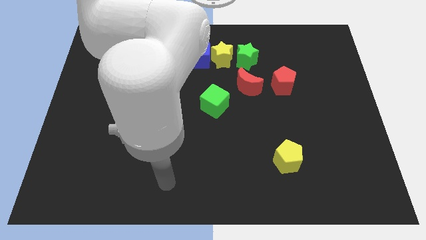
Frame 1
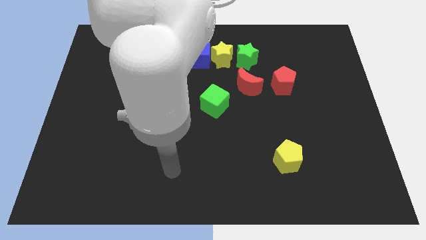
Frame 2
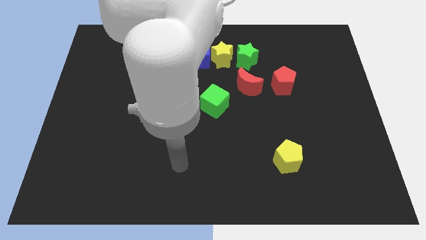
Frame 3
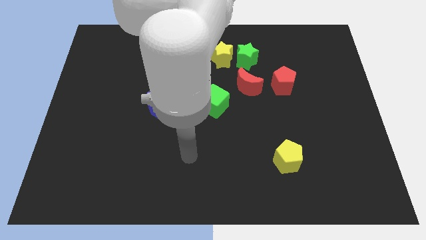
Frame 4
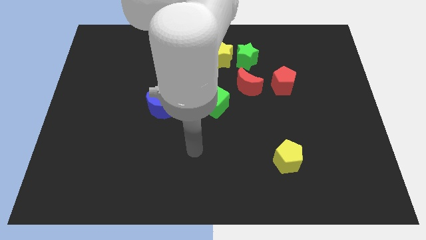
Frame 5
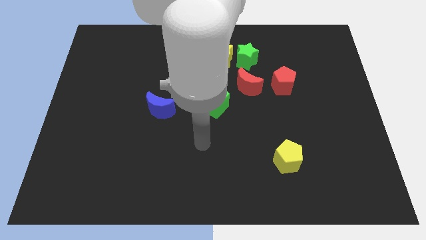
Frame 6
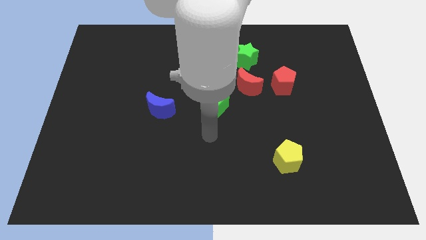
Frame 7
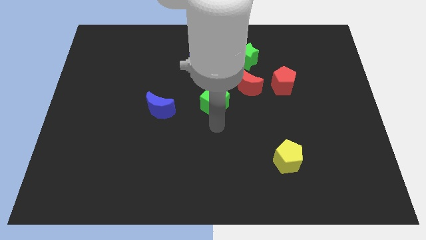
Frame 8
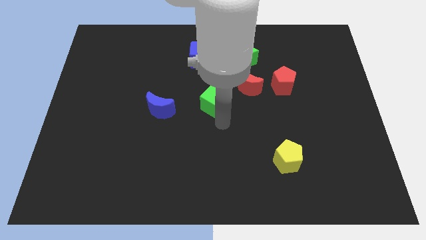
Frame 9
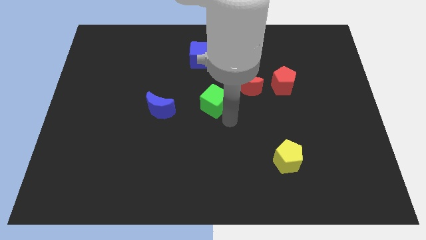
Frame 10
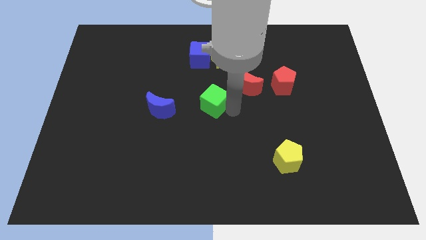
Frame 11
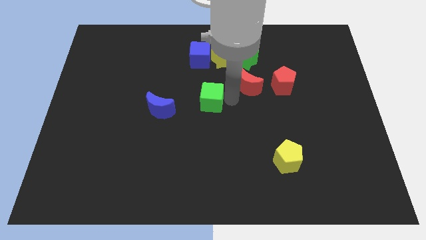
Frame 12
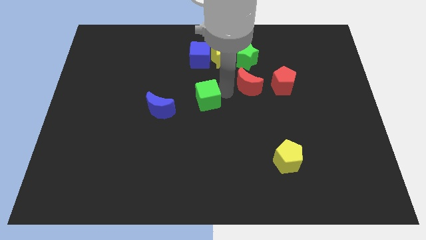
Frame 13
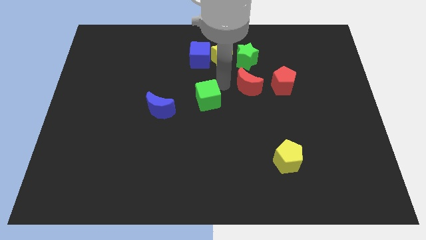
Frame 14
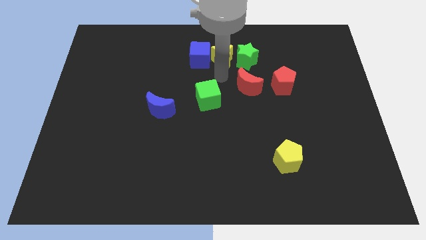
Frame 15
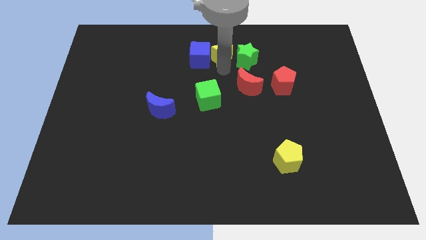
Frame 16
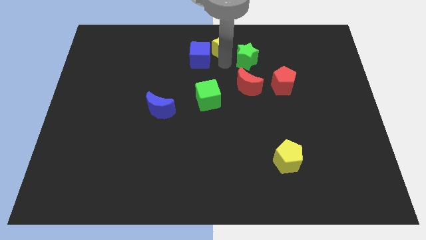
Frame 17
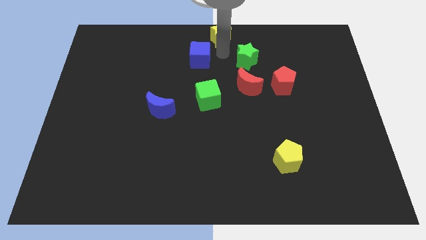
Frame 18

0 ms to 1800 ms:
move the blue cube away from the yellow star

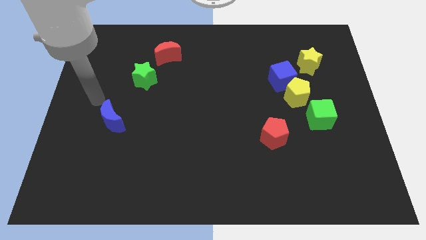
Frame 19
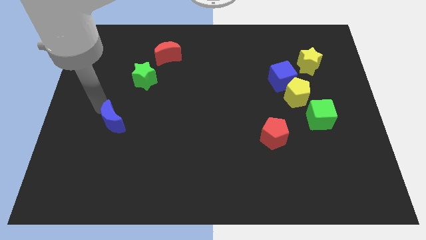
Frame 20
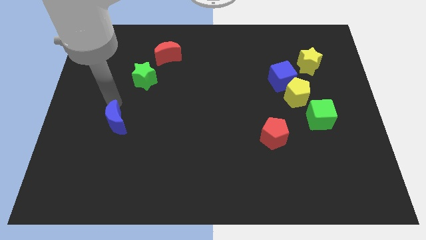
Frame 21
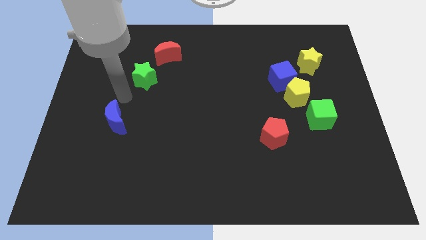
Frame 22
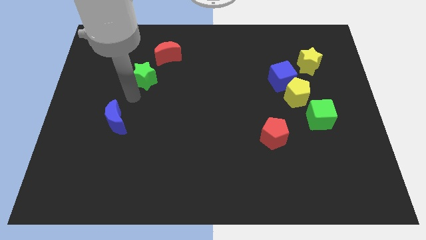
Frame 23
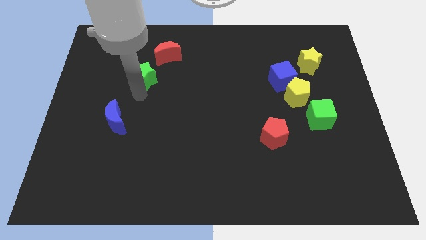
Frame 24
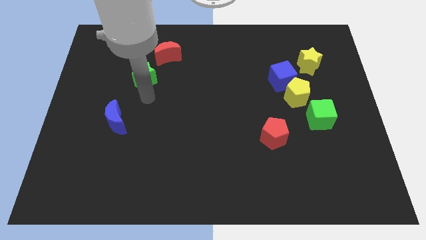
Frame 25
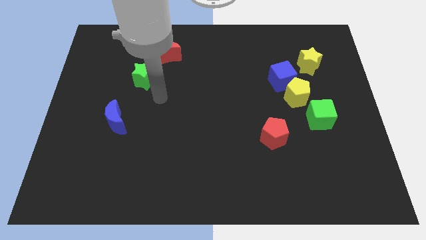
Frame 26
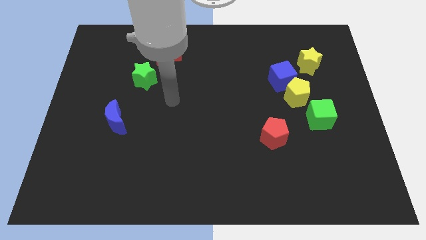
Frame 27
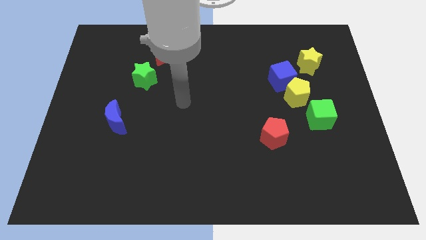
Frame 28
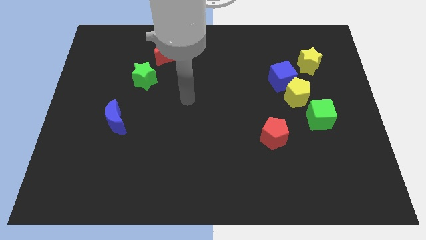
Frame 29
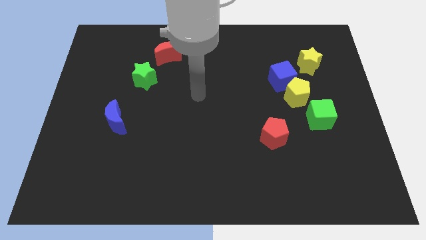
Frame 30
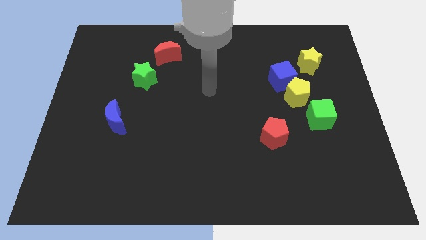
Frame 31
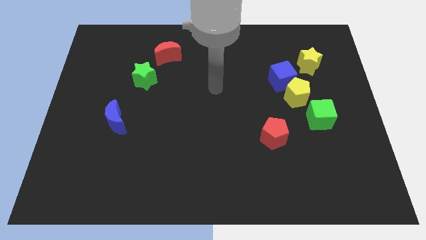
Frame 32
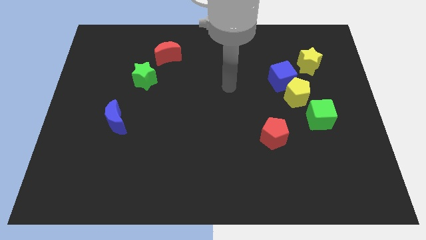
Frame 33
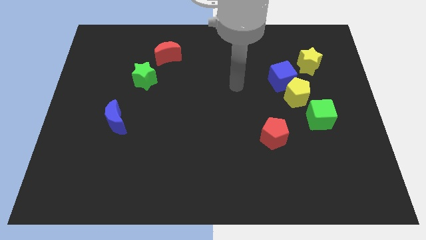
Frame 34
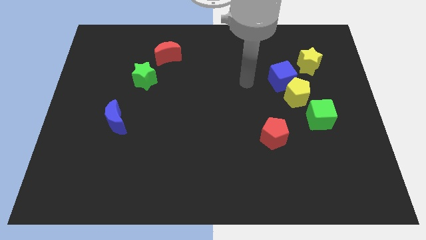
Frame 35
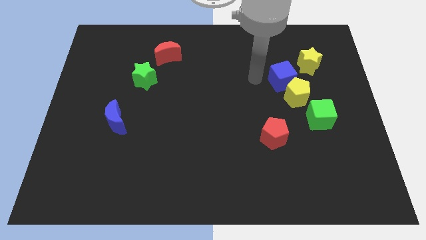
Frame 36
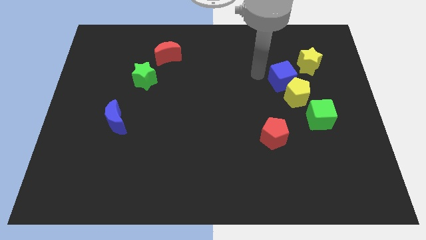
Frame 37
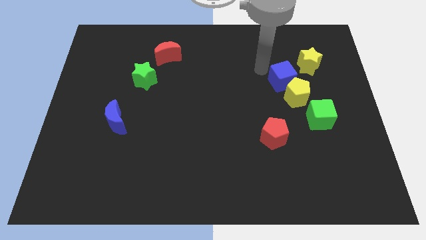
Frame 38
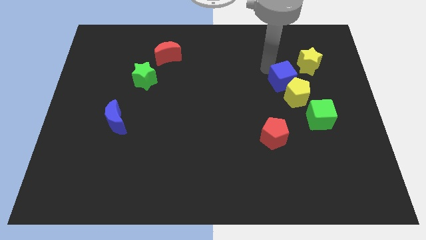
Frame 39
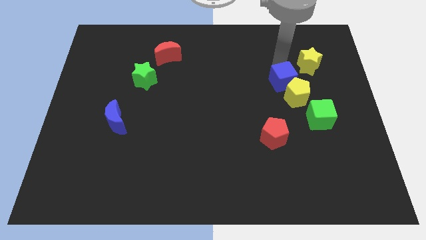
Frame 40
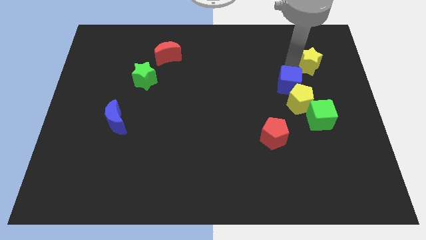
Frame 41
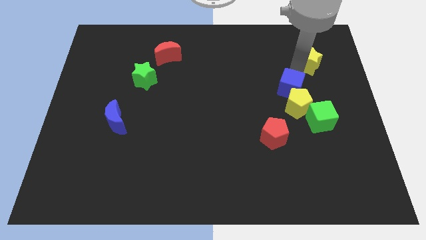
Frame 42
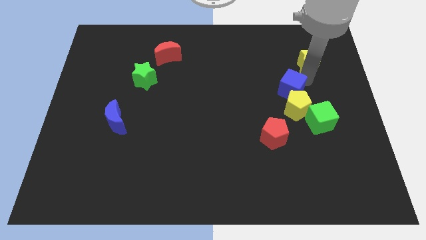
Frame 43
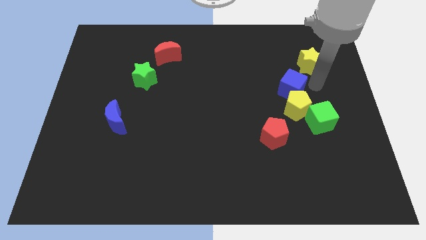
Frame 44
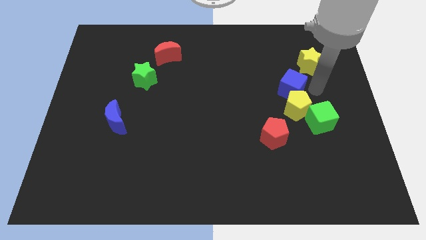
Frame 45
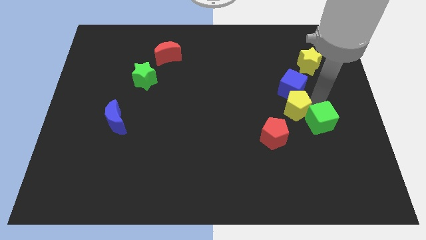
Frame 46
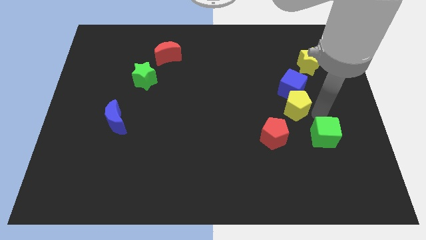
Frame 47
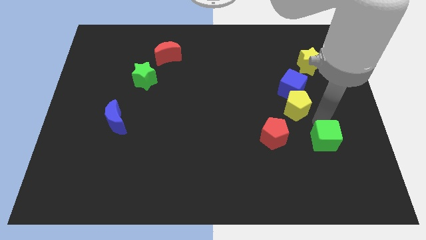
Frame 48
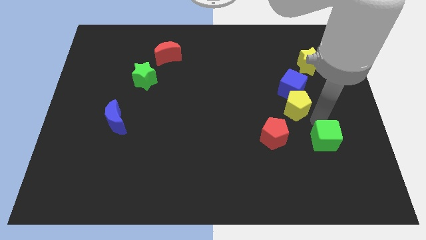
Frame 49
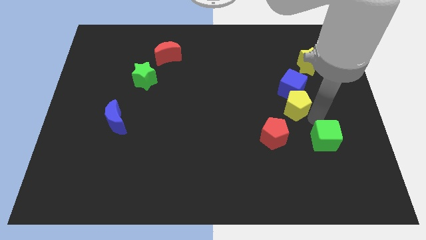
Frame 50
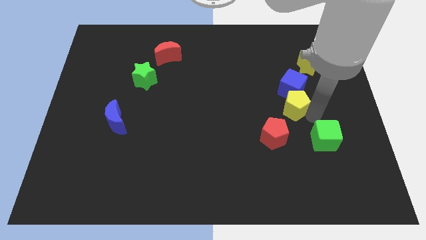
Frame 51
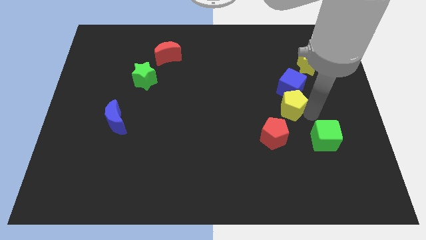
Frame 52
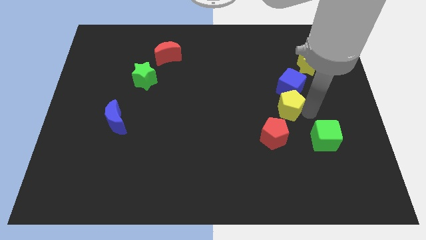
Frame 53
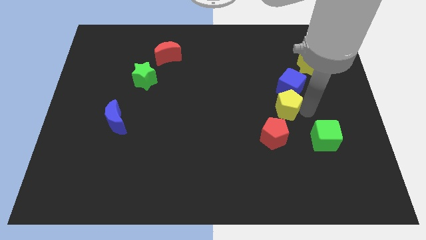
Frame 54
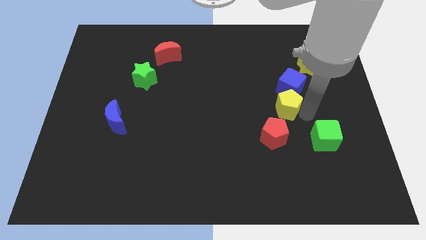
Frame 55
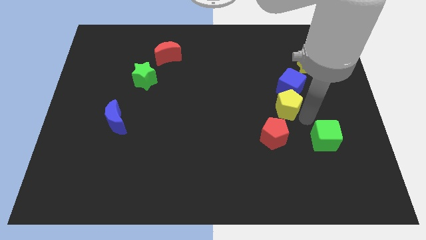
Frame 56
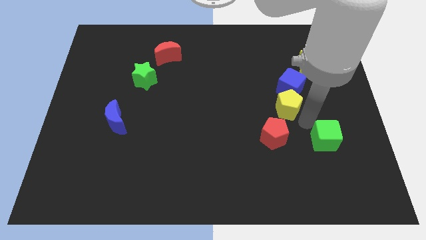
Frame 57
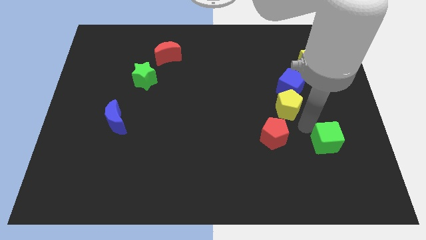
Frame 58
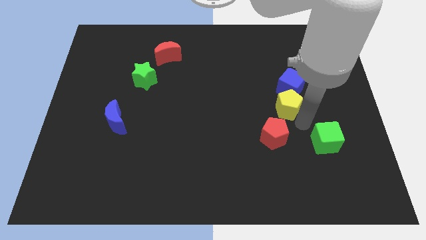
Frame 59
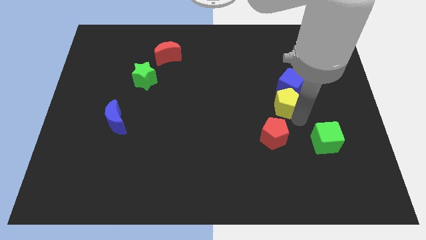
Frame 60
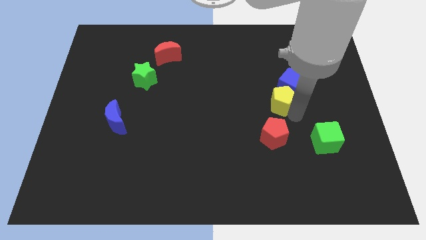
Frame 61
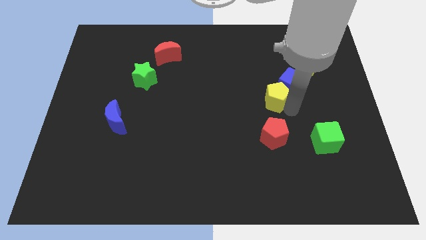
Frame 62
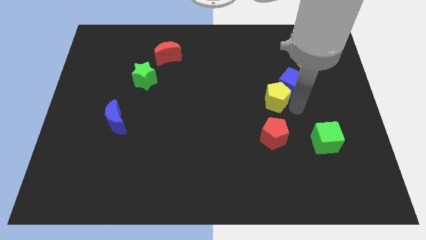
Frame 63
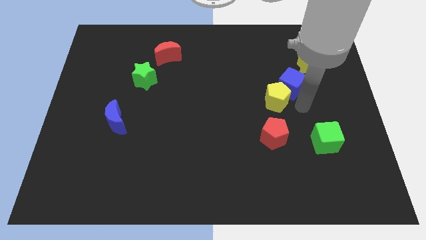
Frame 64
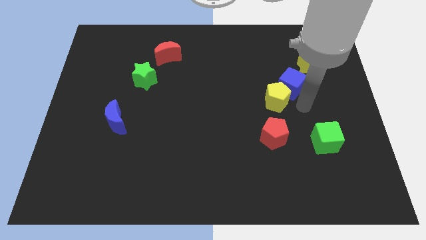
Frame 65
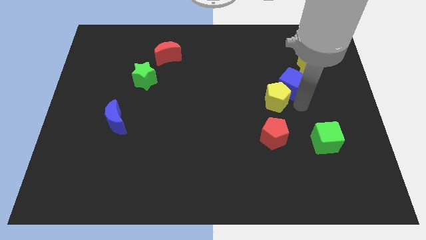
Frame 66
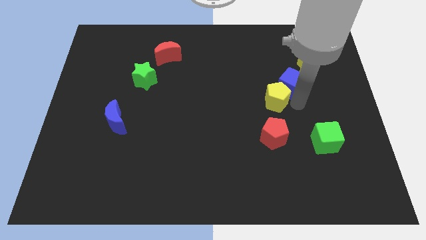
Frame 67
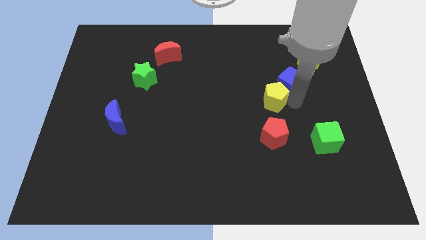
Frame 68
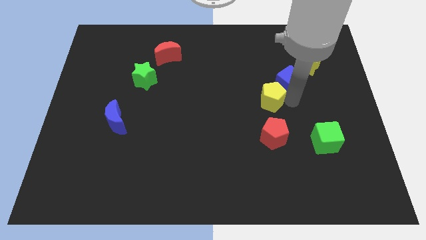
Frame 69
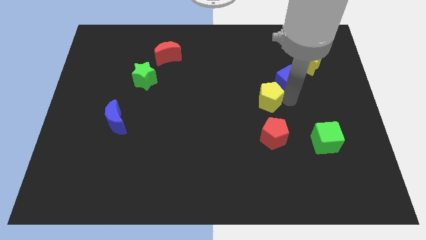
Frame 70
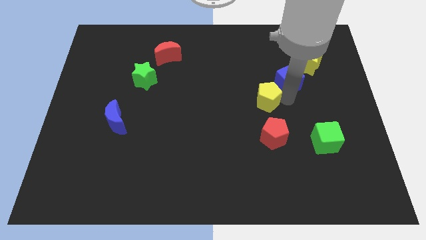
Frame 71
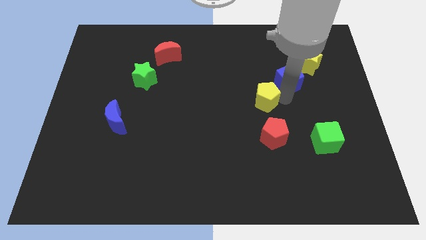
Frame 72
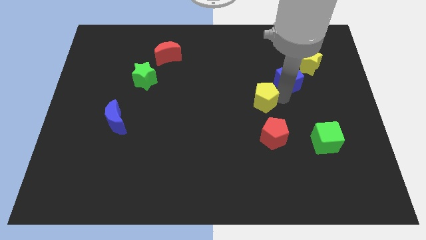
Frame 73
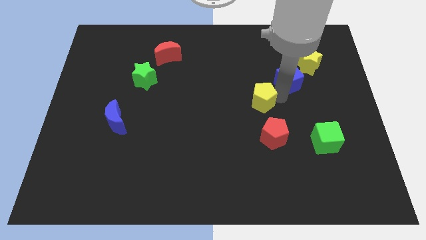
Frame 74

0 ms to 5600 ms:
pull the yellow pentagon apart from the blue cube and green cube

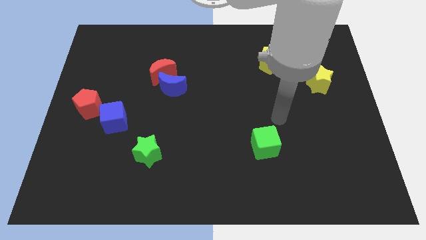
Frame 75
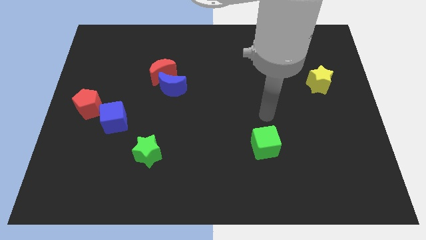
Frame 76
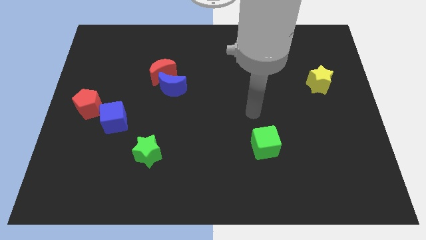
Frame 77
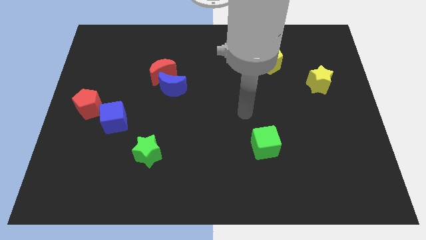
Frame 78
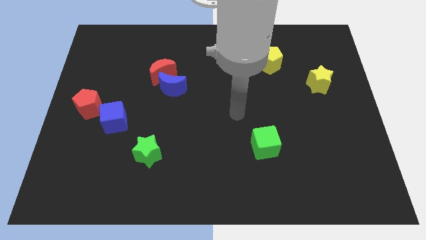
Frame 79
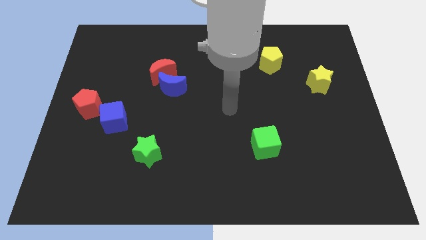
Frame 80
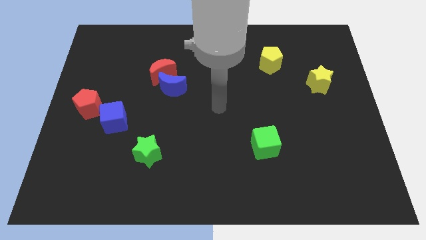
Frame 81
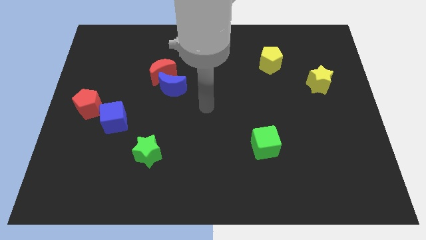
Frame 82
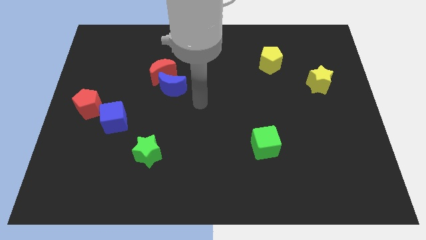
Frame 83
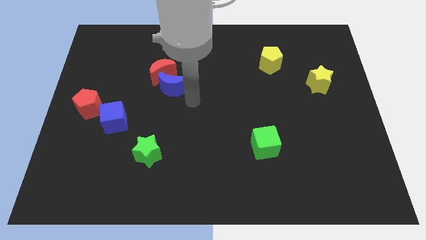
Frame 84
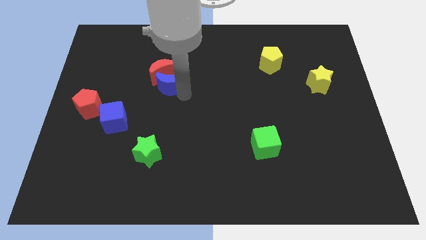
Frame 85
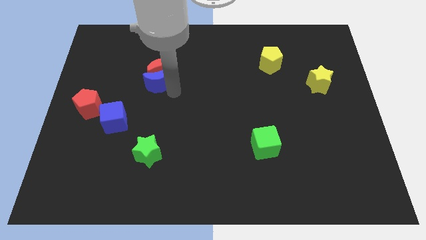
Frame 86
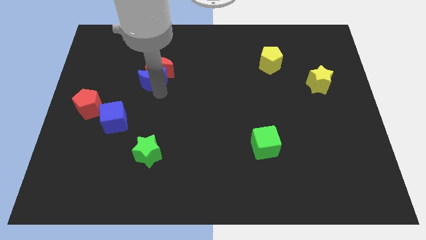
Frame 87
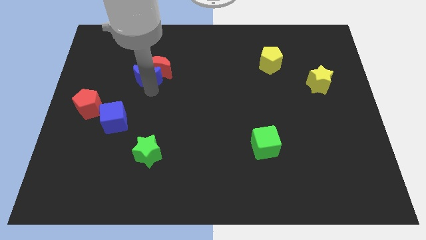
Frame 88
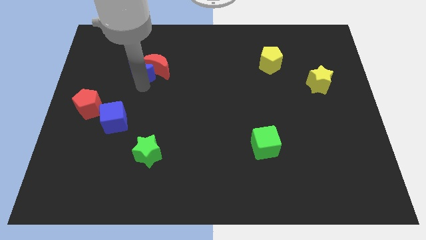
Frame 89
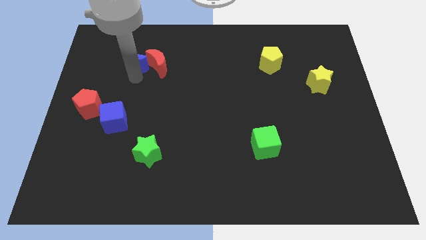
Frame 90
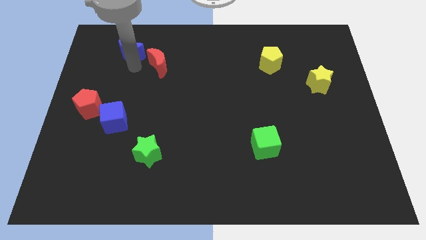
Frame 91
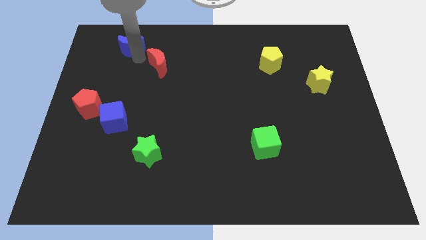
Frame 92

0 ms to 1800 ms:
move the red moon away from the blue moon
